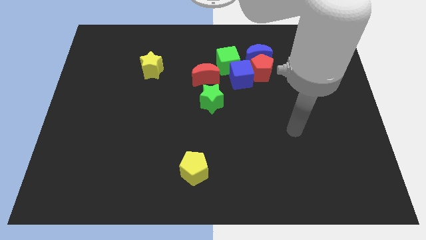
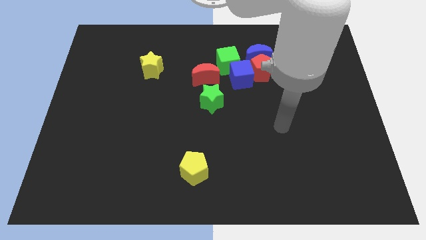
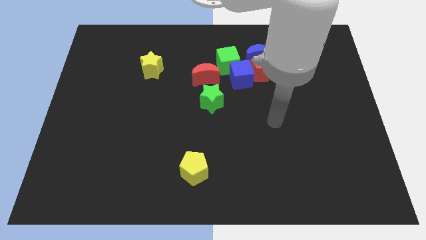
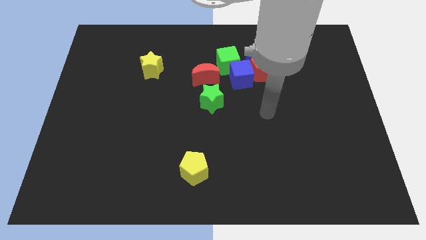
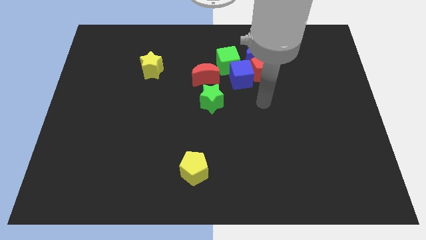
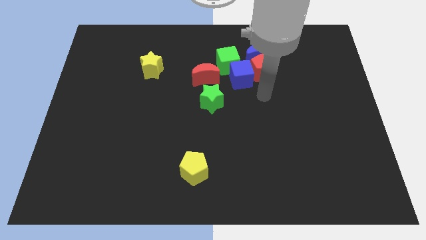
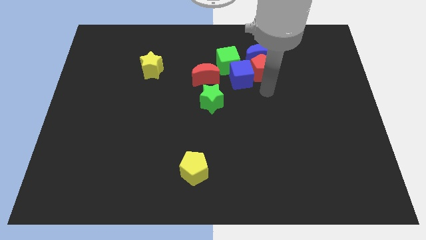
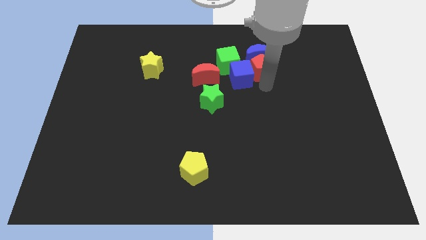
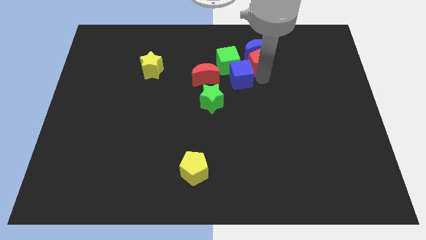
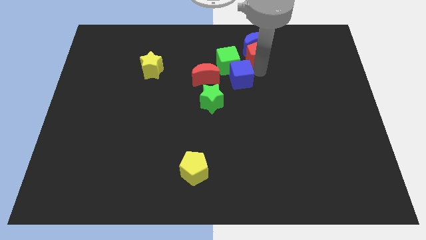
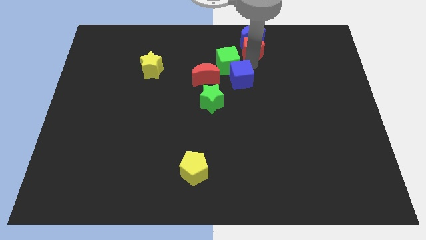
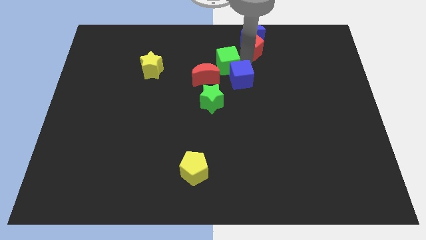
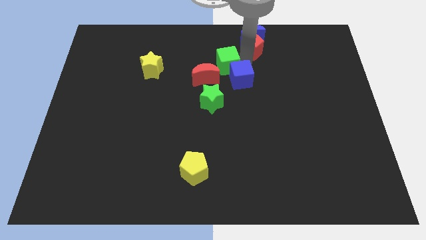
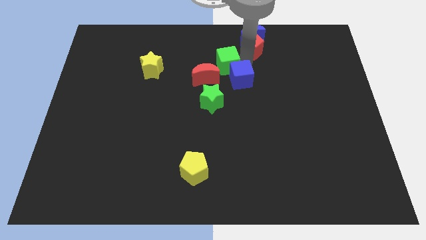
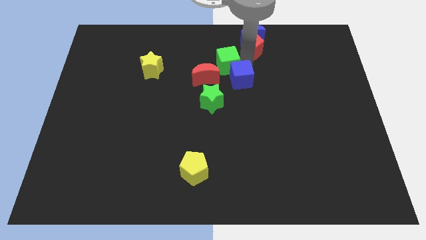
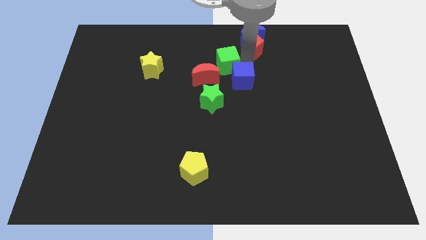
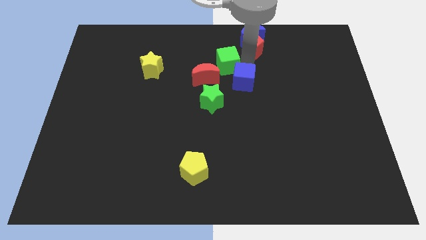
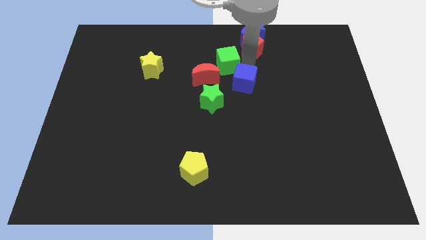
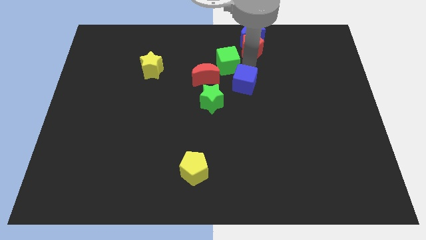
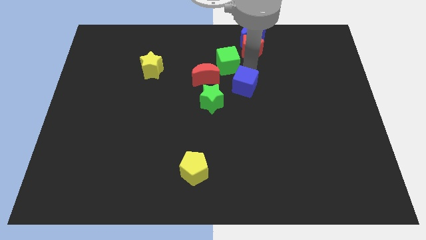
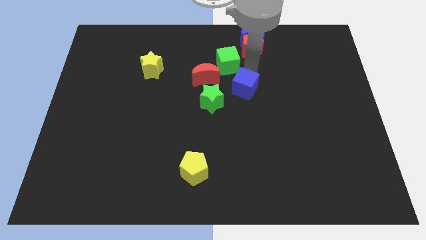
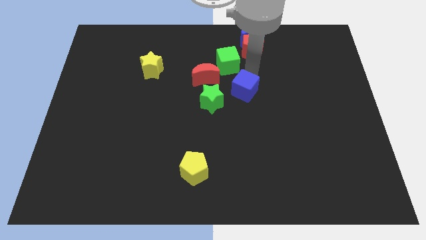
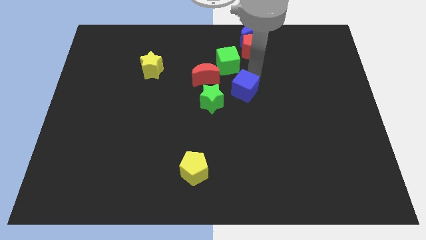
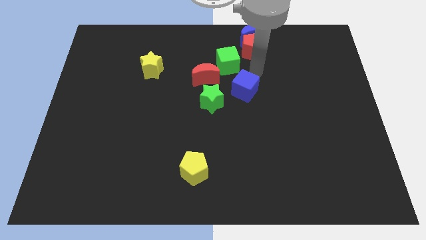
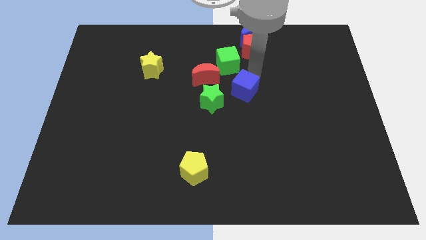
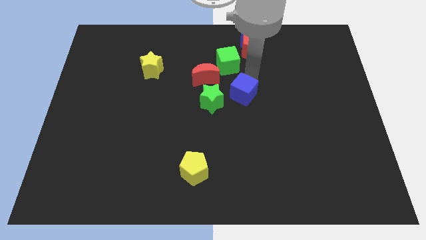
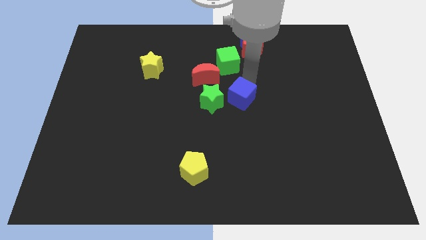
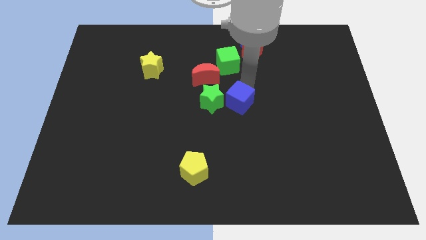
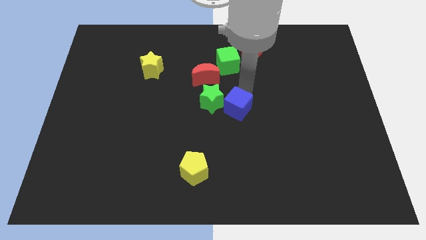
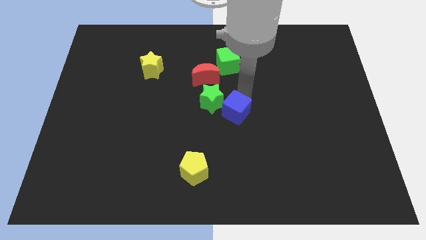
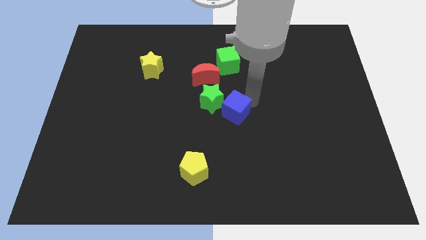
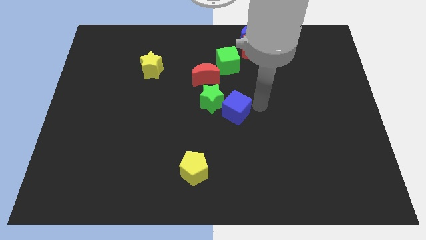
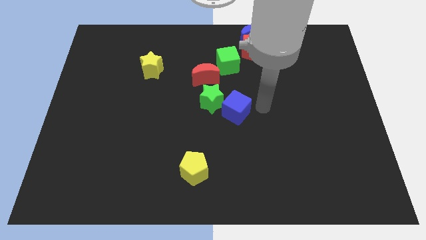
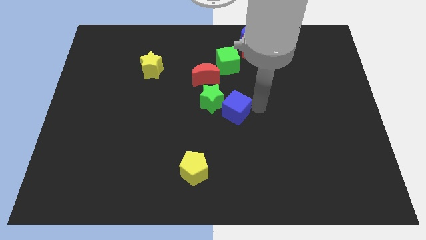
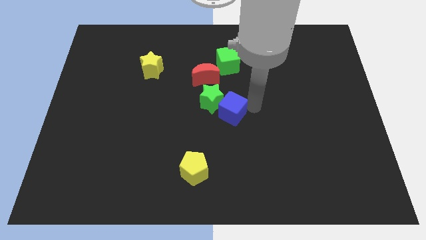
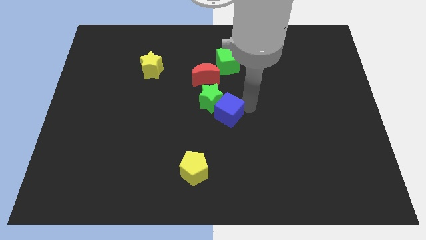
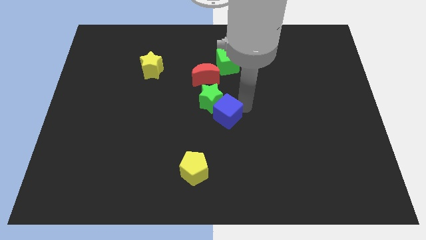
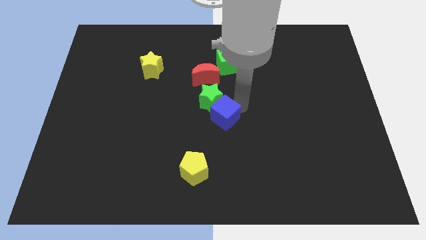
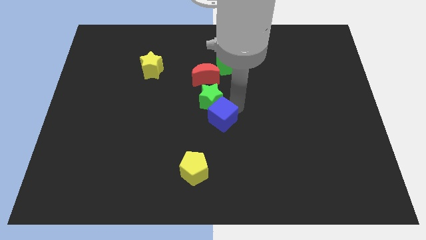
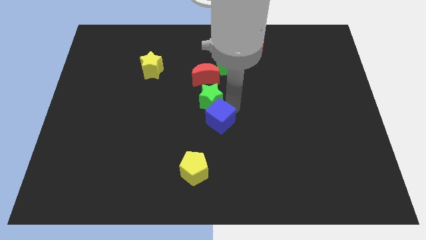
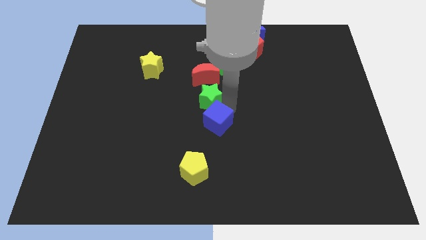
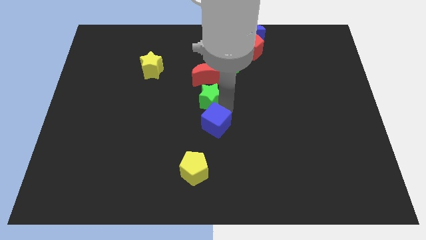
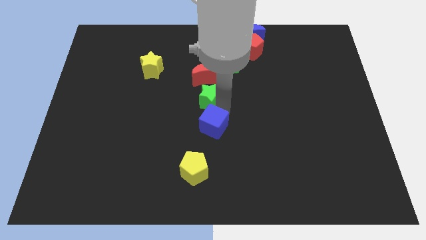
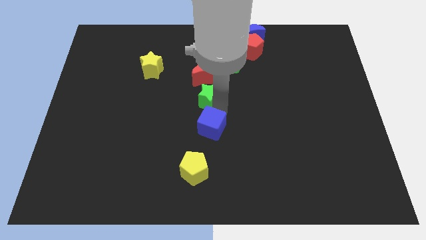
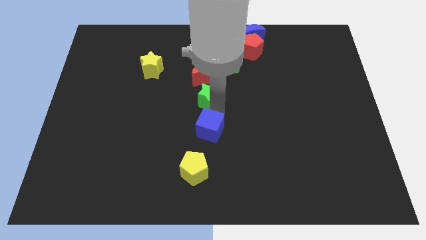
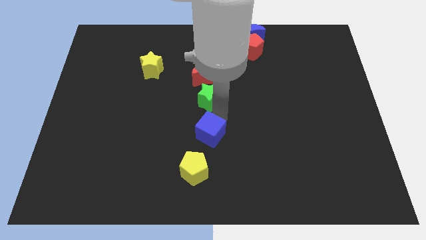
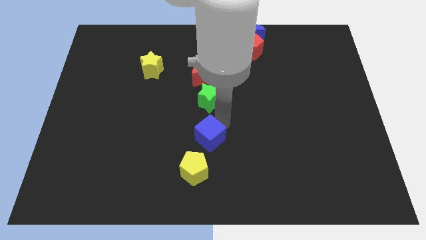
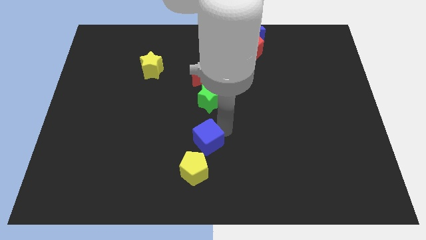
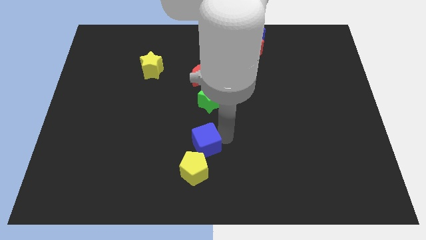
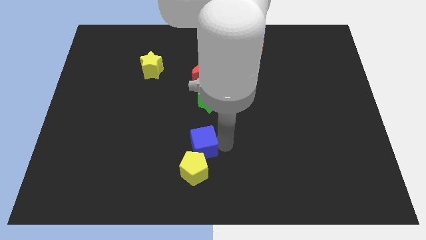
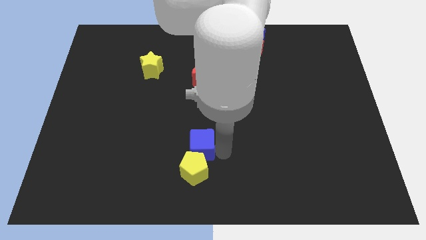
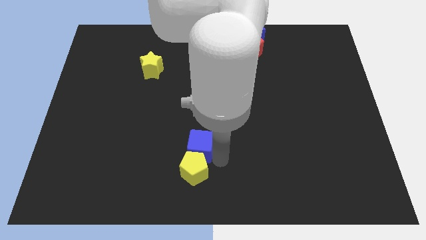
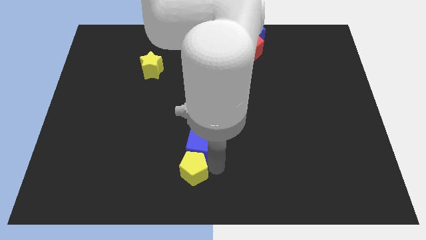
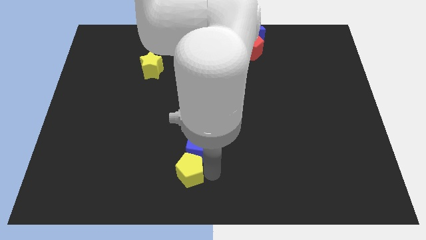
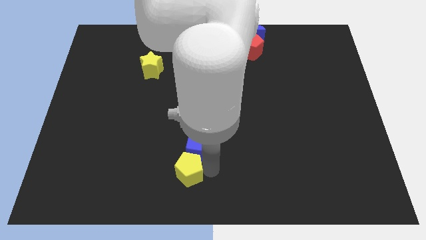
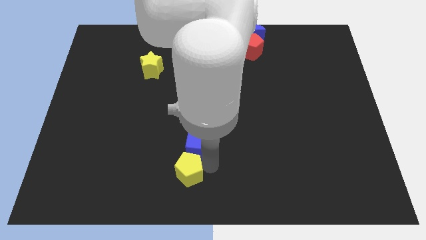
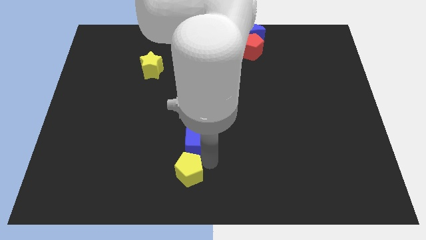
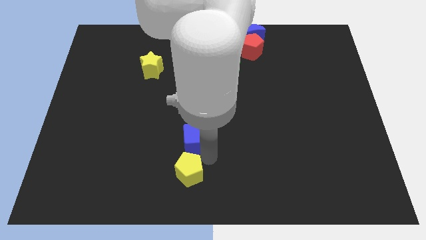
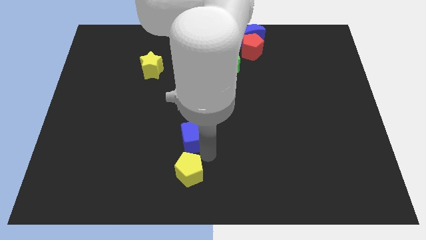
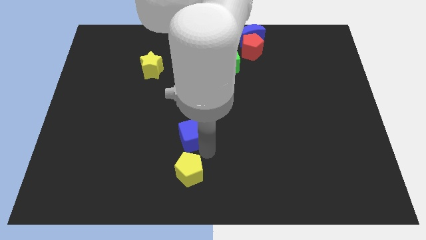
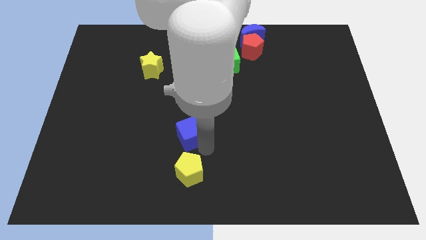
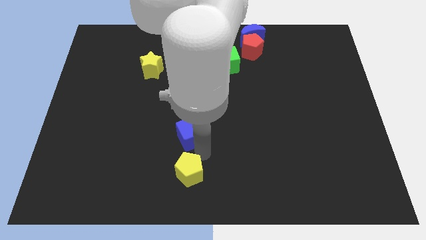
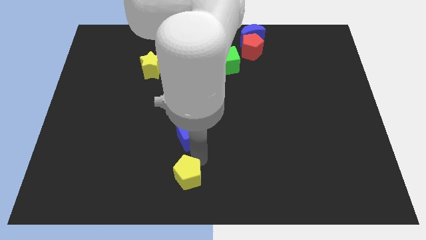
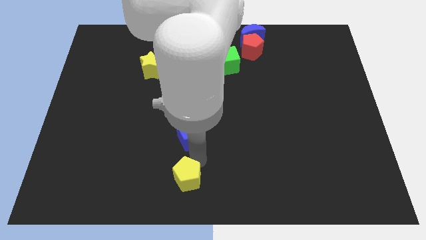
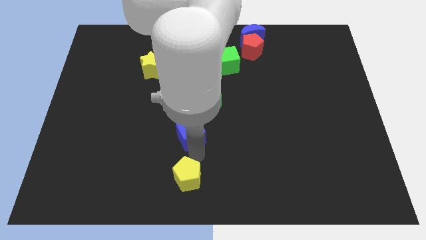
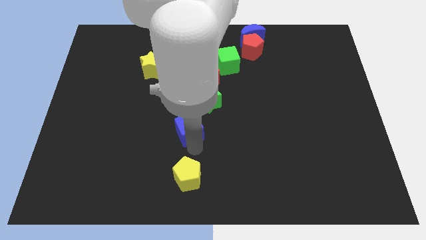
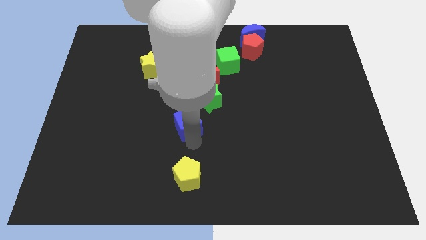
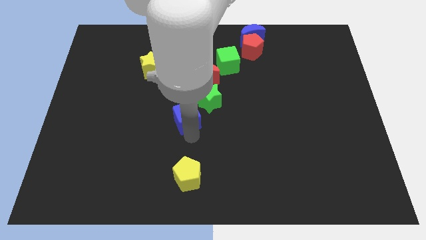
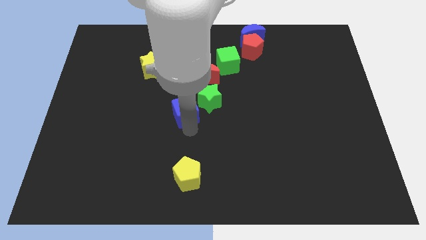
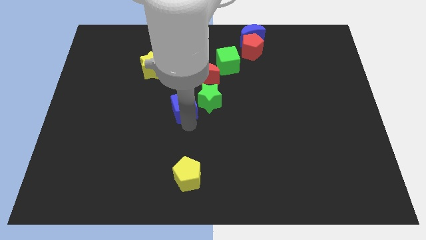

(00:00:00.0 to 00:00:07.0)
slightly slide the blue cube to the left

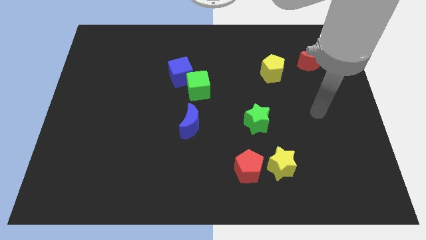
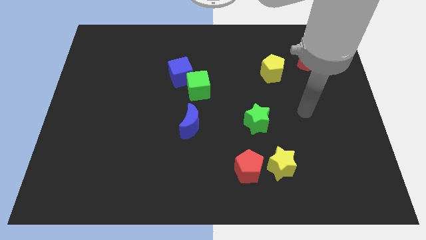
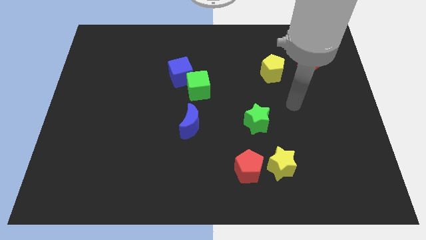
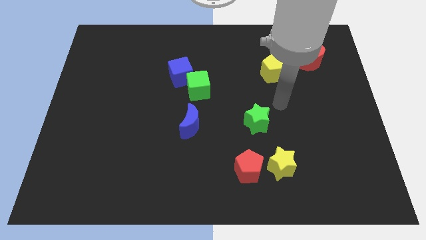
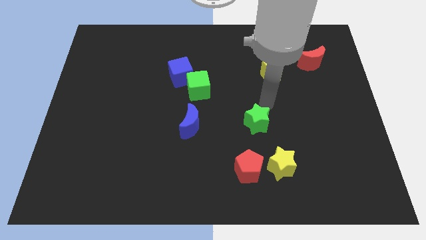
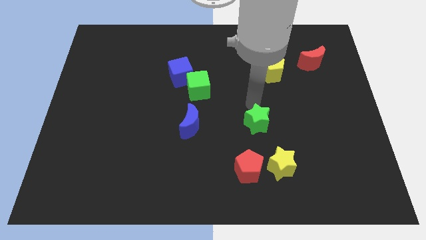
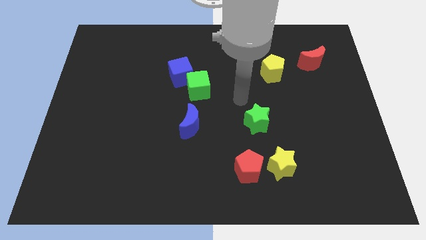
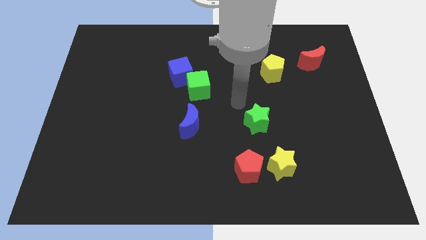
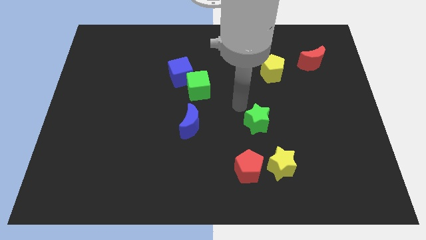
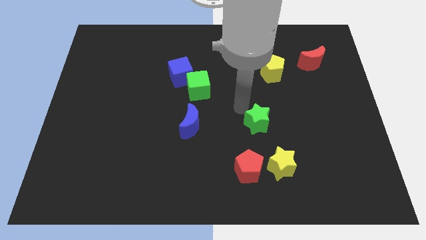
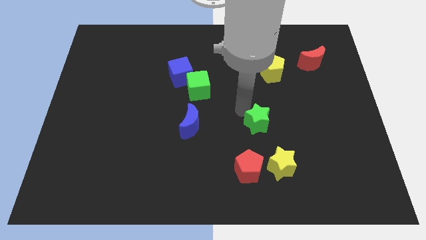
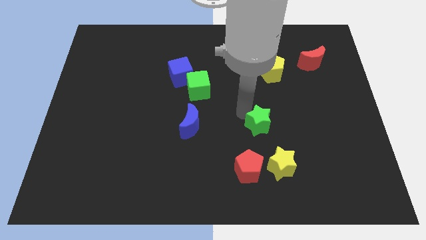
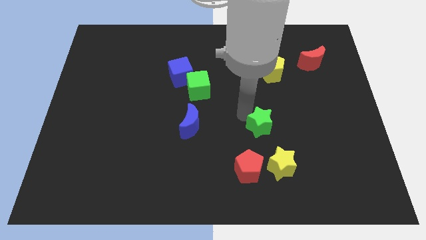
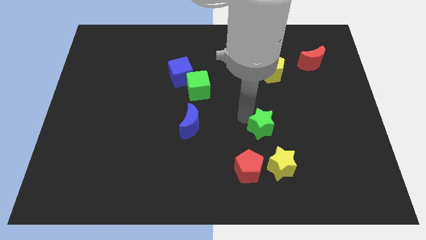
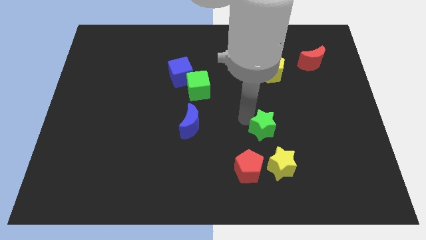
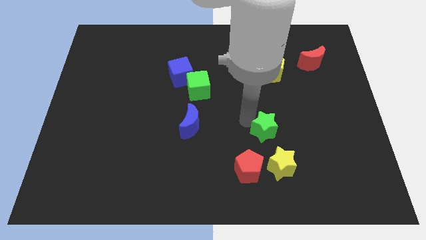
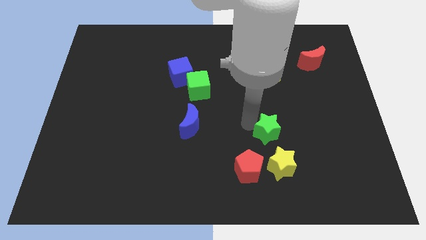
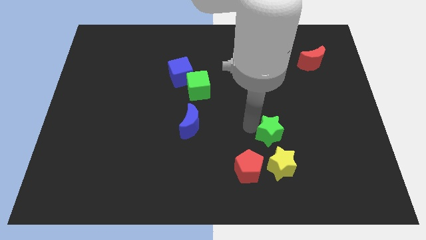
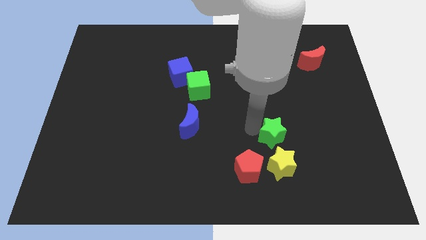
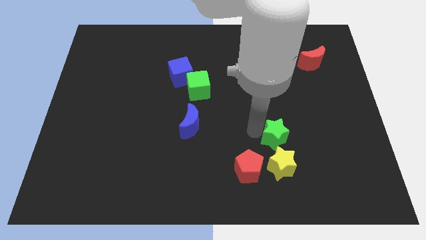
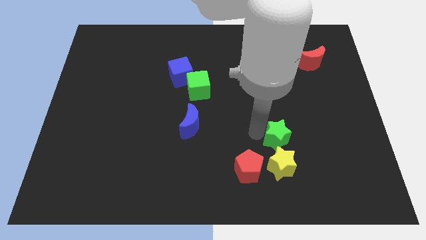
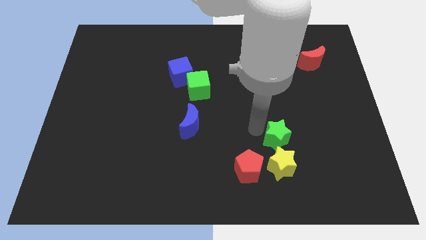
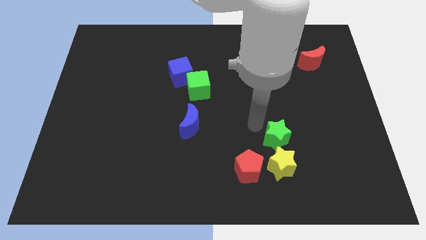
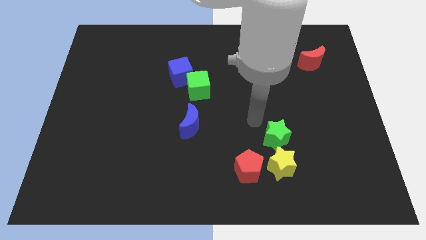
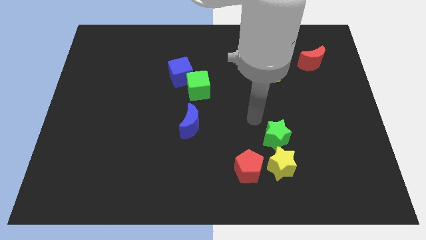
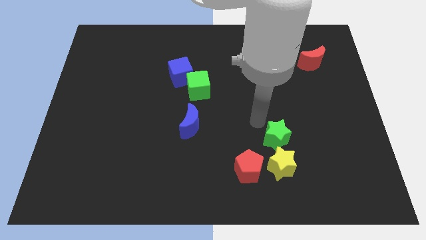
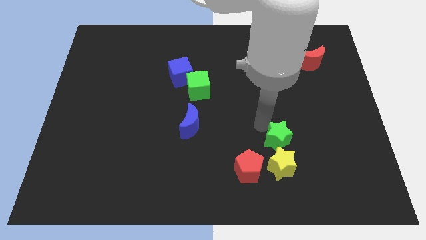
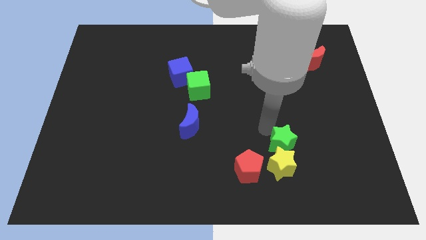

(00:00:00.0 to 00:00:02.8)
slide the green star slightly downwards and right diagonally
